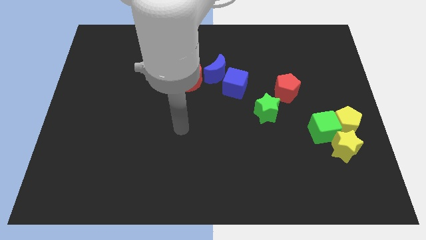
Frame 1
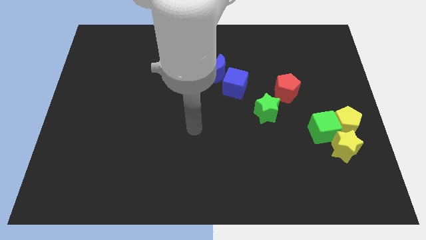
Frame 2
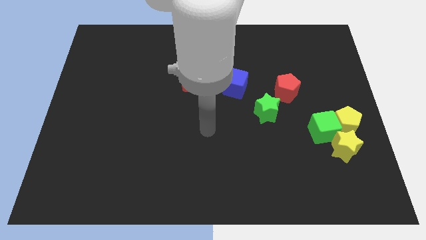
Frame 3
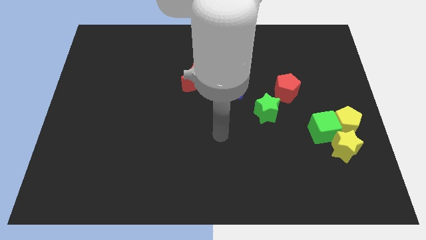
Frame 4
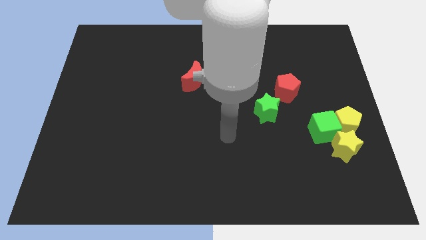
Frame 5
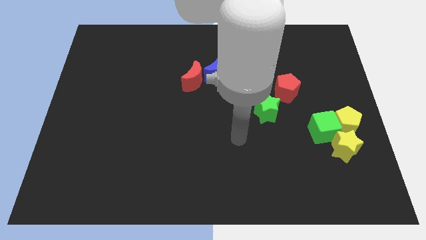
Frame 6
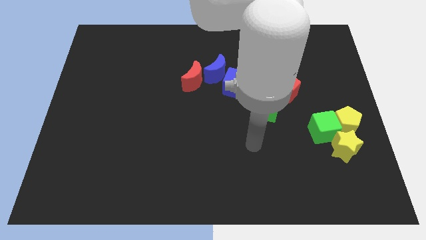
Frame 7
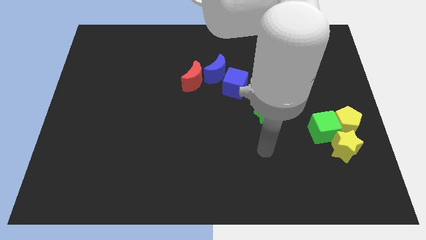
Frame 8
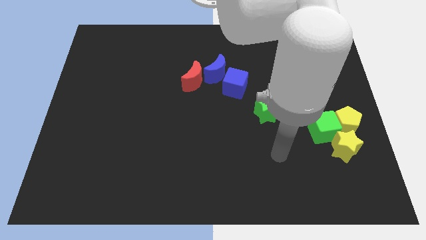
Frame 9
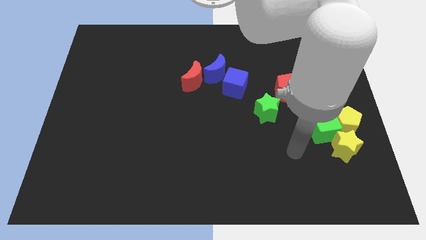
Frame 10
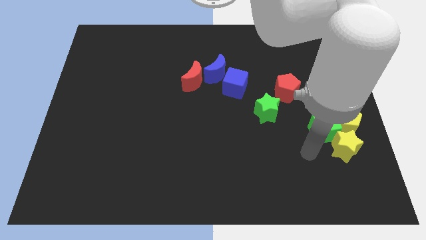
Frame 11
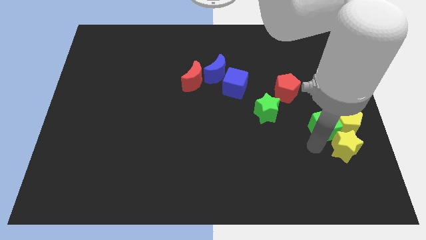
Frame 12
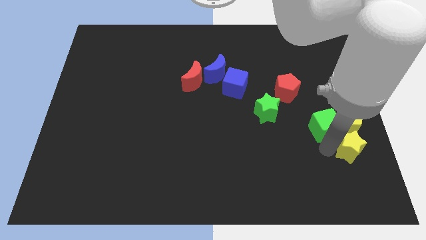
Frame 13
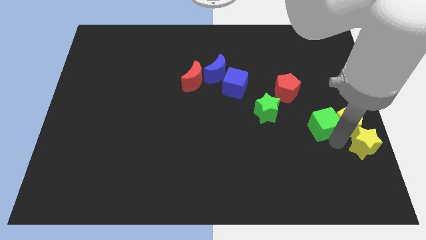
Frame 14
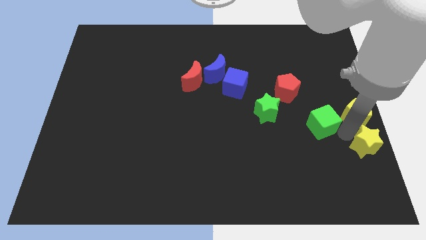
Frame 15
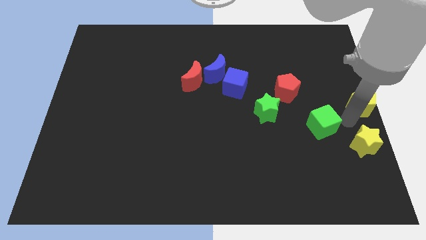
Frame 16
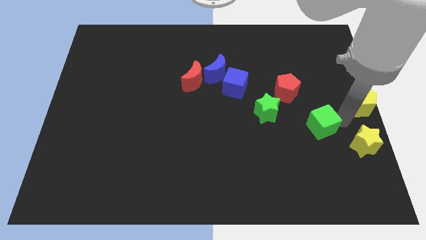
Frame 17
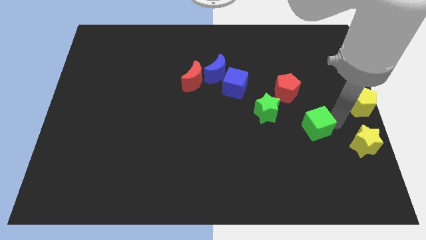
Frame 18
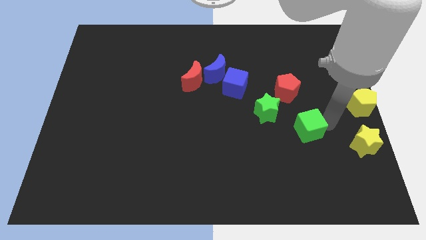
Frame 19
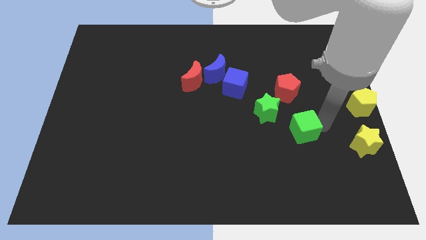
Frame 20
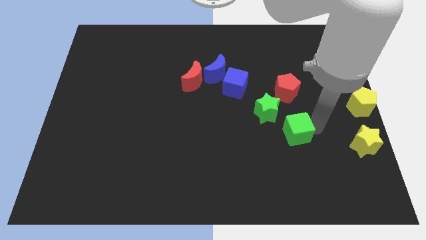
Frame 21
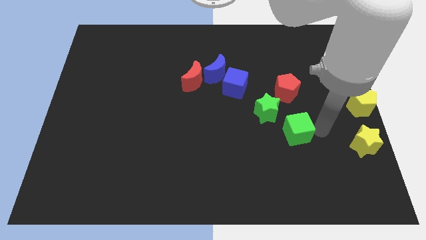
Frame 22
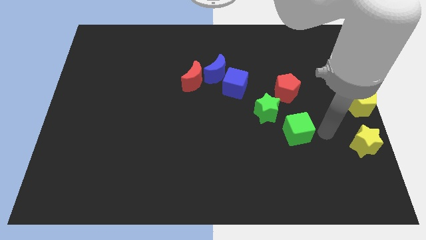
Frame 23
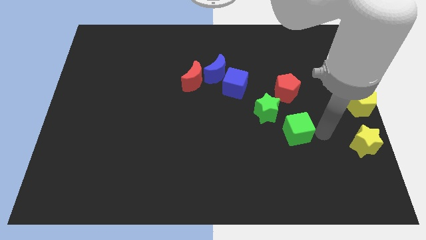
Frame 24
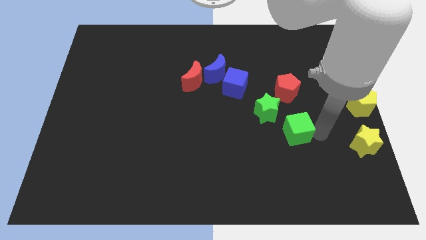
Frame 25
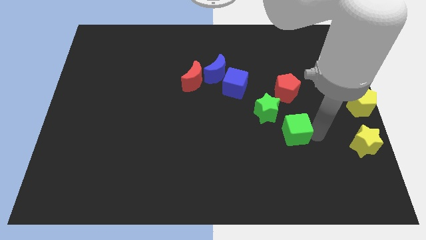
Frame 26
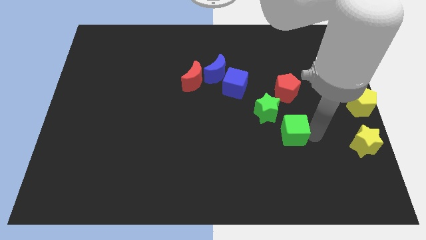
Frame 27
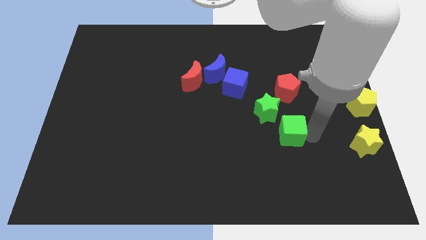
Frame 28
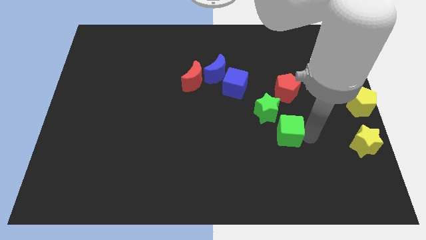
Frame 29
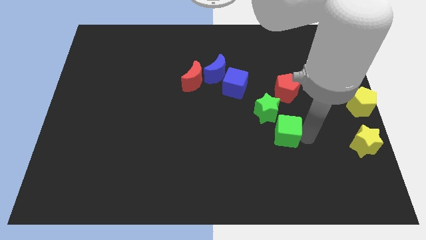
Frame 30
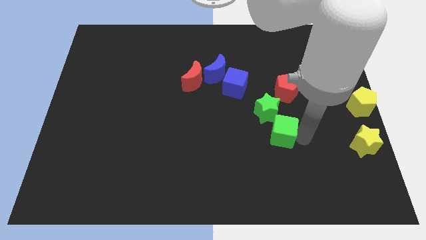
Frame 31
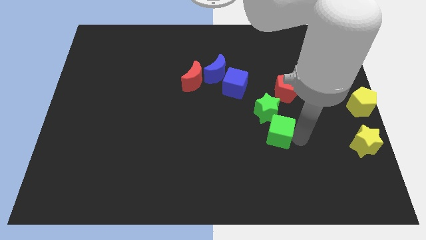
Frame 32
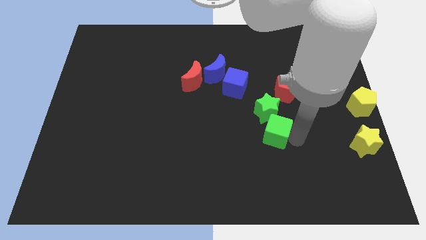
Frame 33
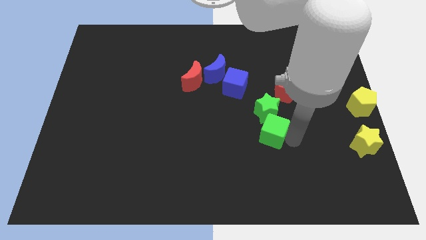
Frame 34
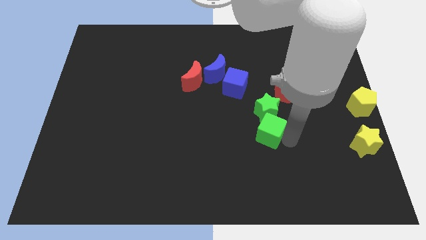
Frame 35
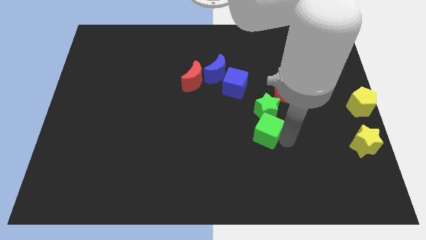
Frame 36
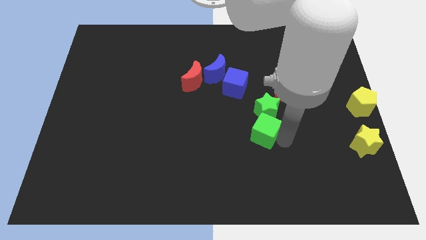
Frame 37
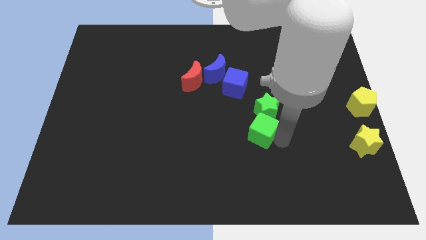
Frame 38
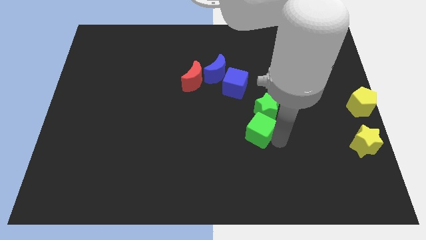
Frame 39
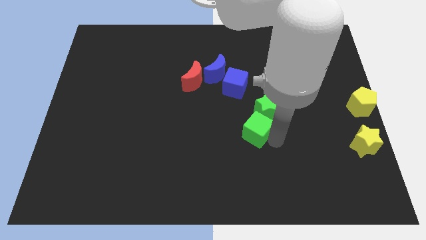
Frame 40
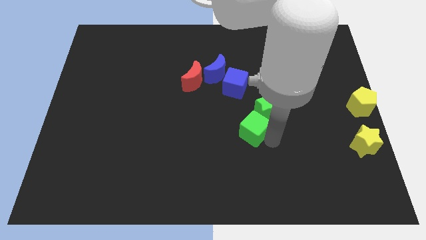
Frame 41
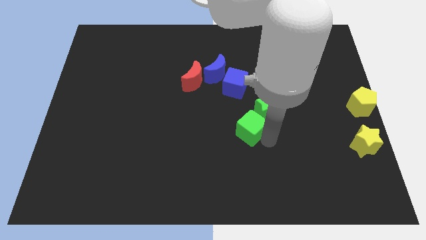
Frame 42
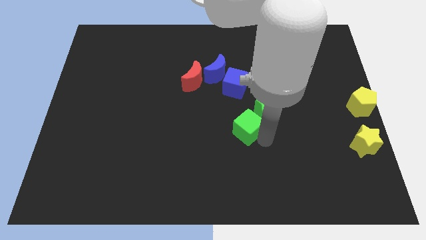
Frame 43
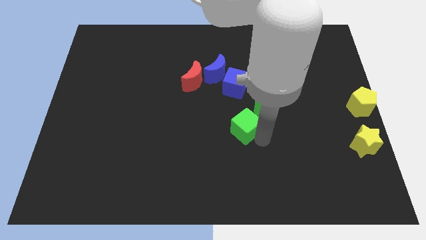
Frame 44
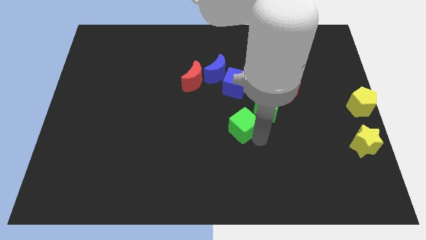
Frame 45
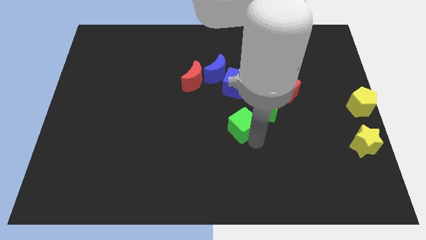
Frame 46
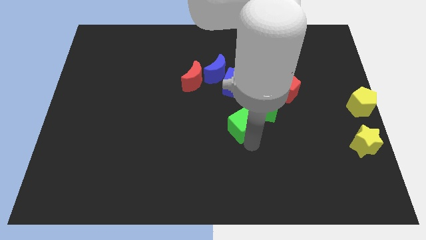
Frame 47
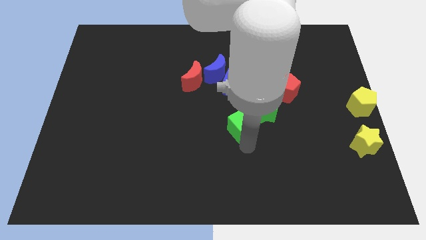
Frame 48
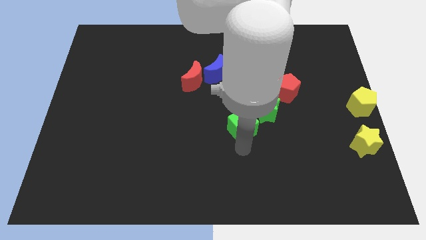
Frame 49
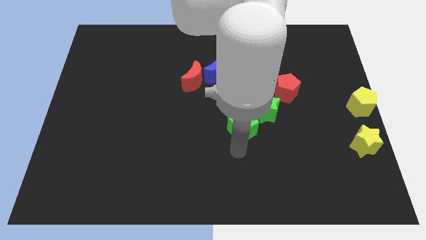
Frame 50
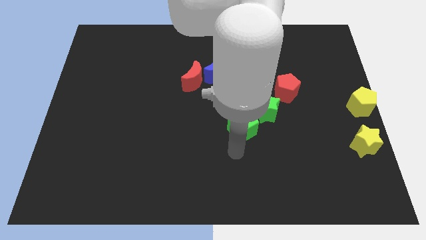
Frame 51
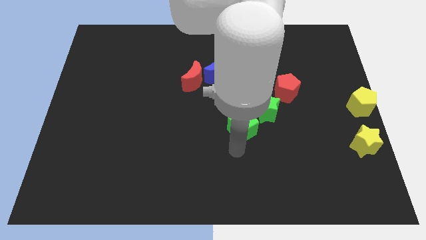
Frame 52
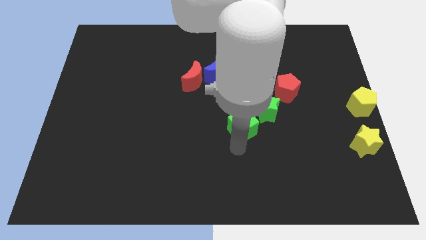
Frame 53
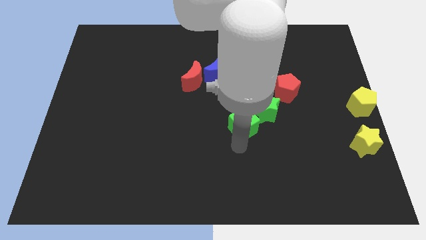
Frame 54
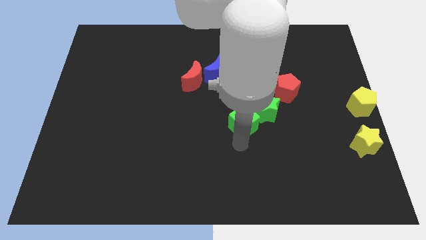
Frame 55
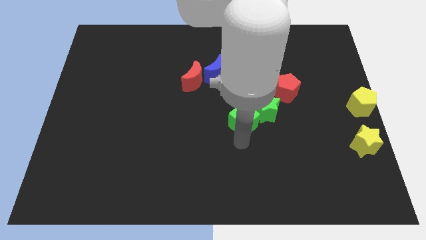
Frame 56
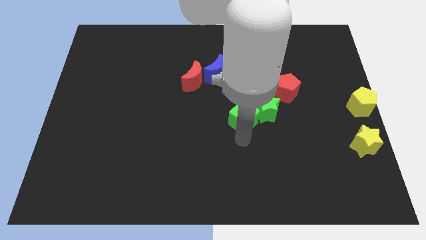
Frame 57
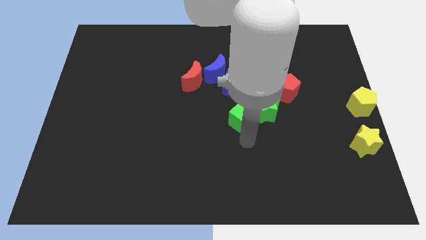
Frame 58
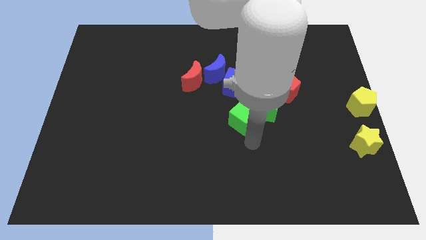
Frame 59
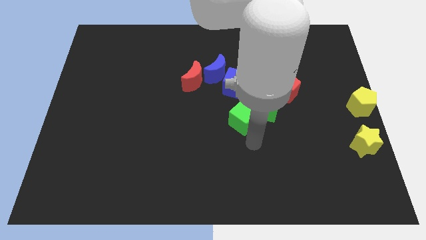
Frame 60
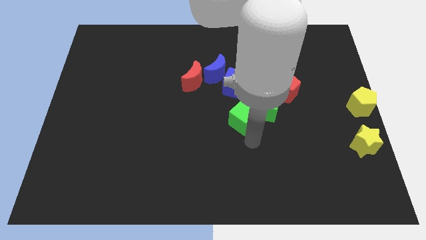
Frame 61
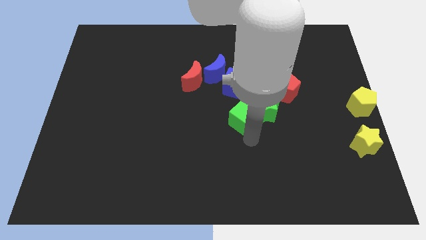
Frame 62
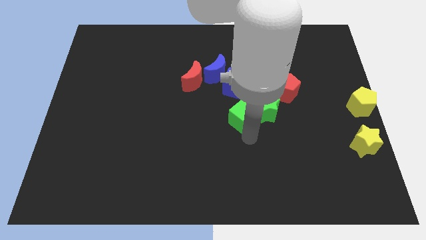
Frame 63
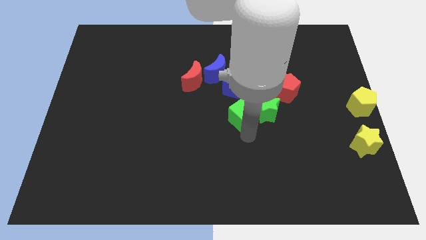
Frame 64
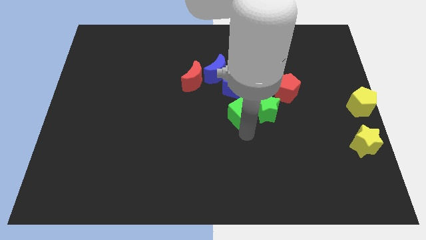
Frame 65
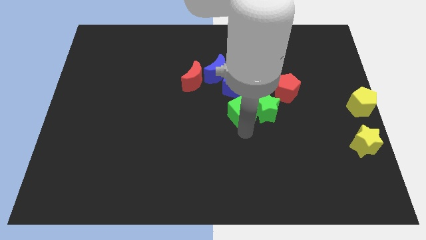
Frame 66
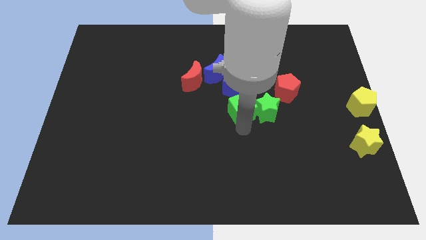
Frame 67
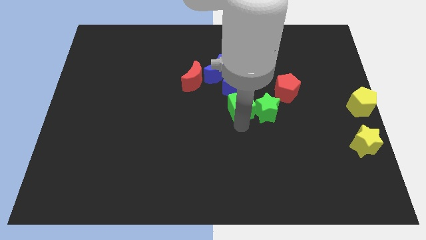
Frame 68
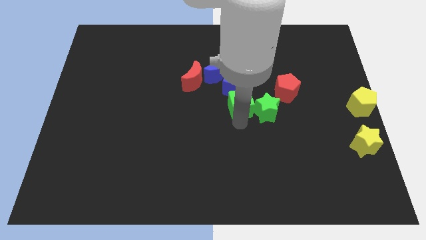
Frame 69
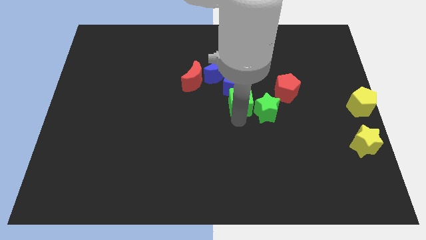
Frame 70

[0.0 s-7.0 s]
move the green cube next to the blue cube

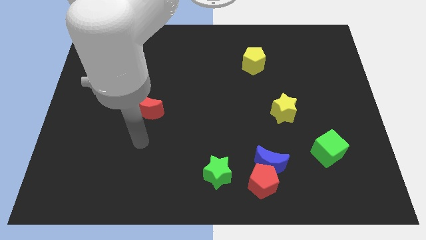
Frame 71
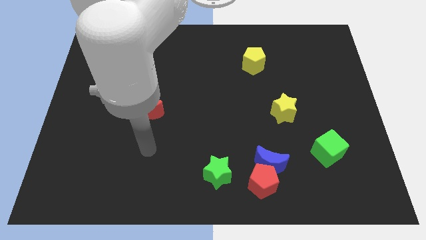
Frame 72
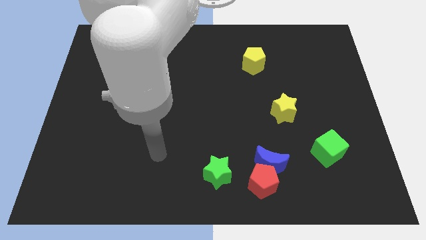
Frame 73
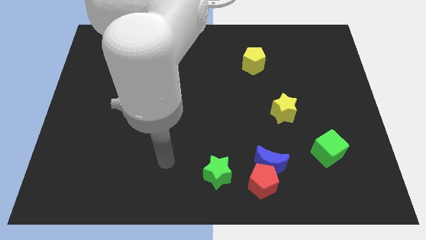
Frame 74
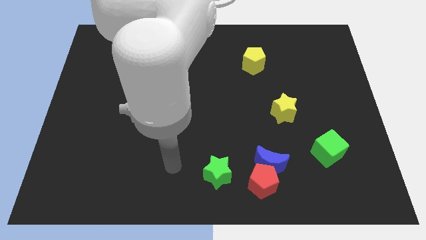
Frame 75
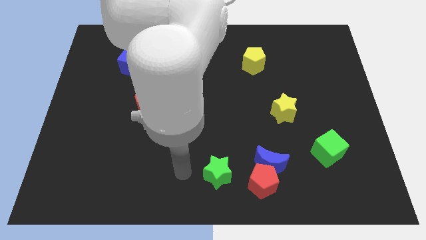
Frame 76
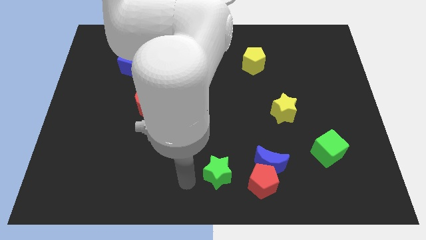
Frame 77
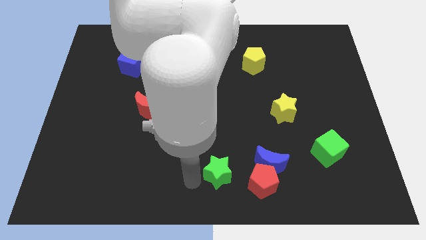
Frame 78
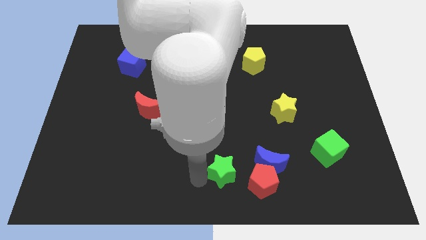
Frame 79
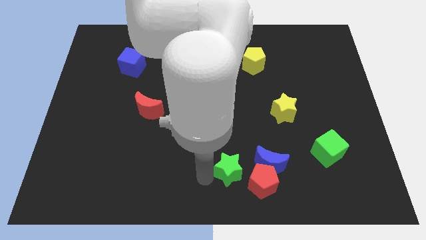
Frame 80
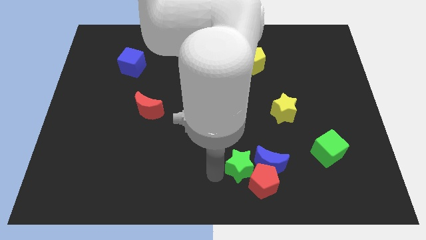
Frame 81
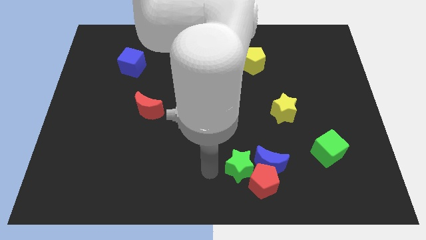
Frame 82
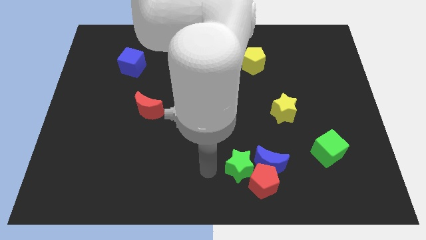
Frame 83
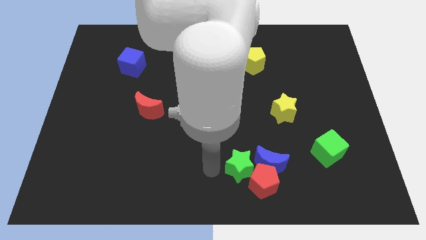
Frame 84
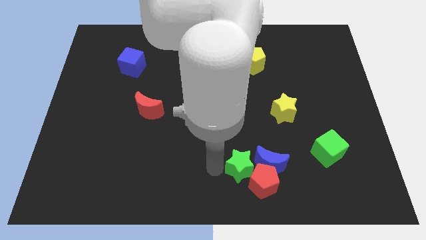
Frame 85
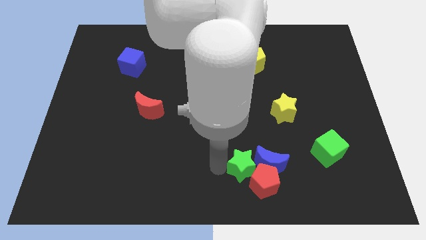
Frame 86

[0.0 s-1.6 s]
push the green star close to the blue moon
